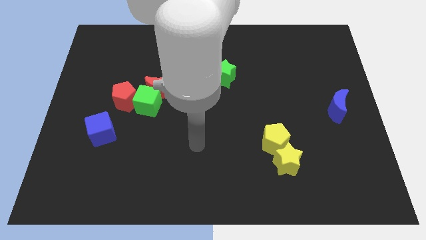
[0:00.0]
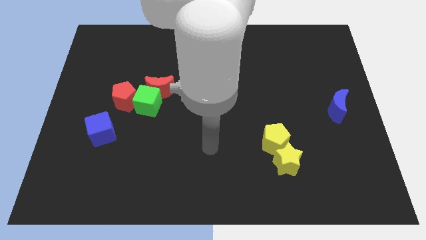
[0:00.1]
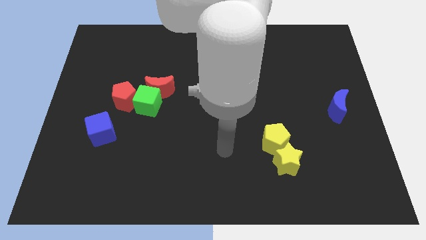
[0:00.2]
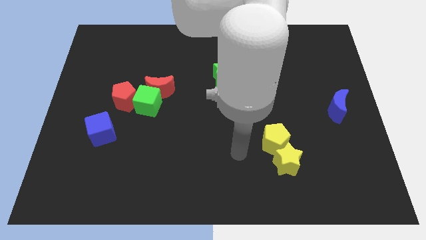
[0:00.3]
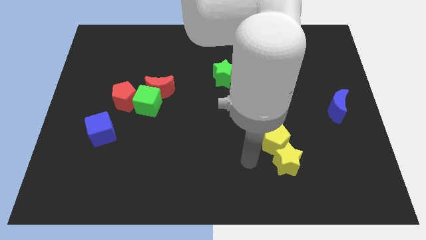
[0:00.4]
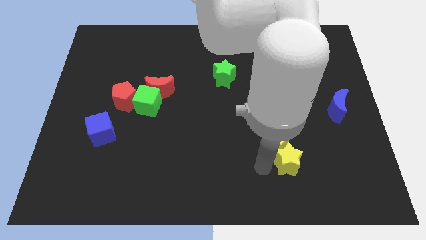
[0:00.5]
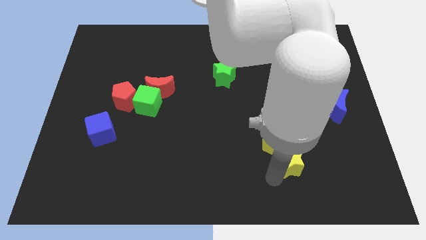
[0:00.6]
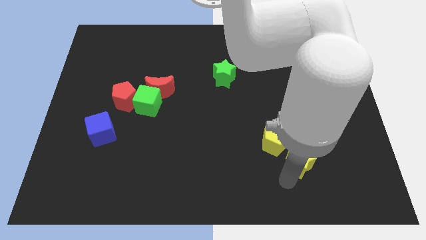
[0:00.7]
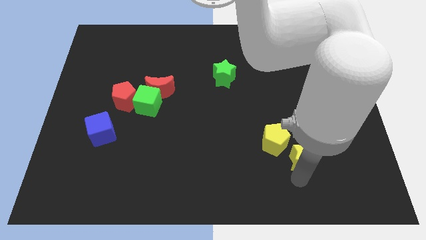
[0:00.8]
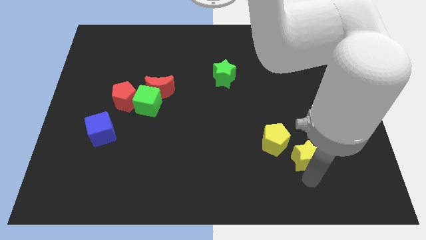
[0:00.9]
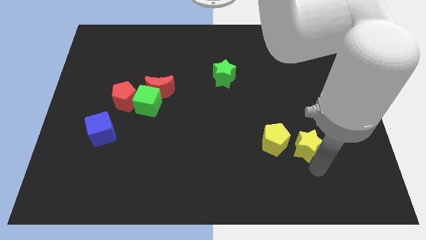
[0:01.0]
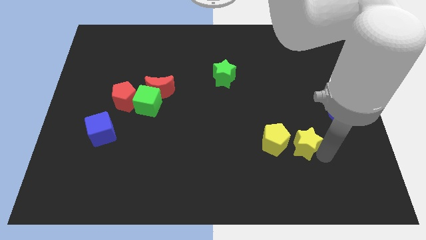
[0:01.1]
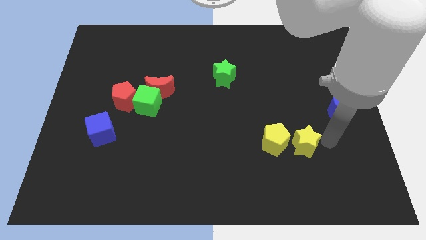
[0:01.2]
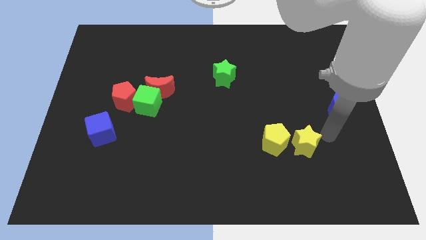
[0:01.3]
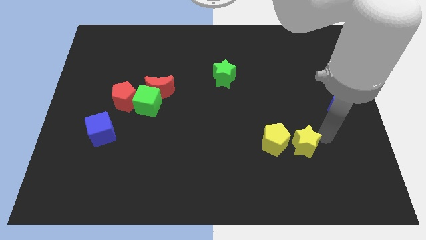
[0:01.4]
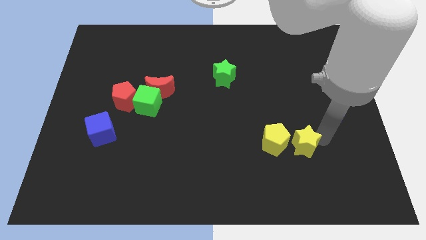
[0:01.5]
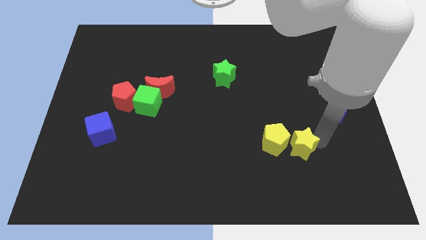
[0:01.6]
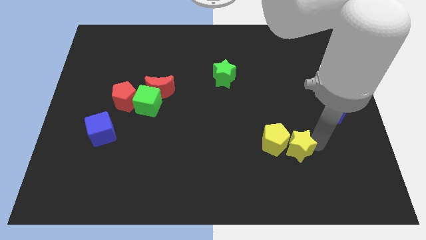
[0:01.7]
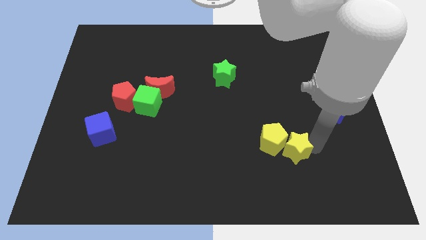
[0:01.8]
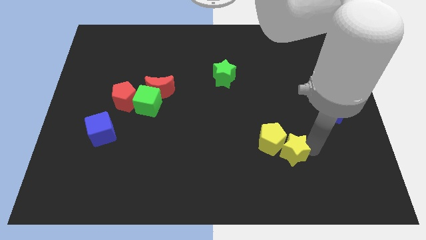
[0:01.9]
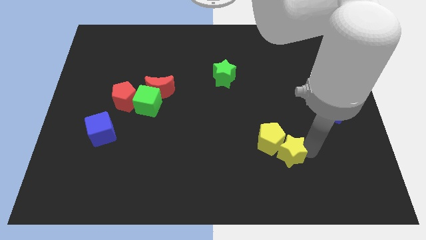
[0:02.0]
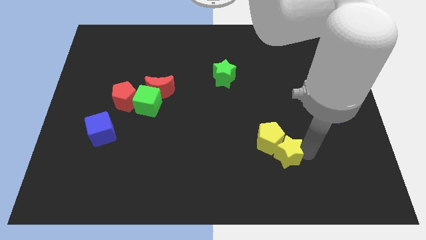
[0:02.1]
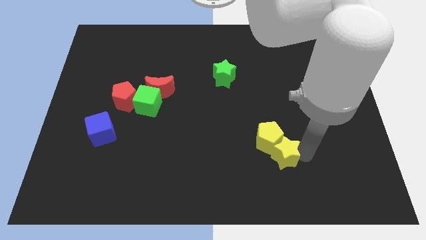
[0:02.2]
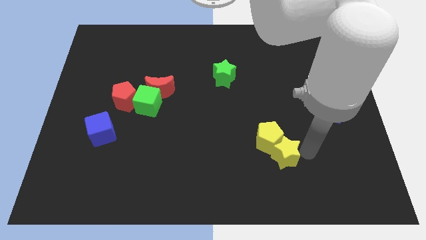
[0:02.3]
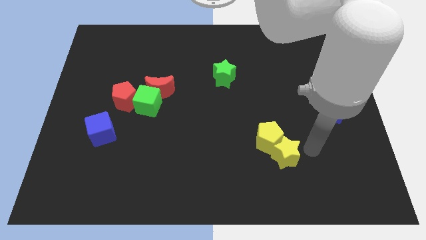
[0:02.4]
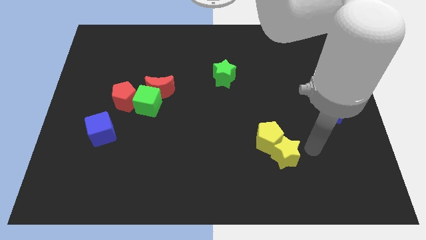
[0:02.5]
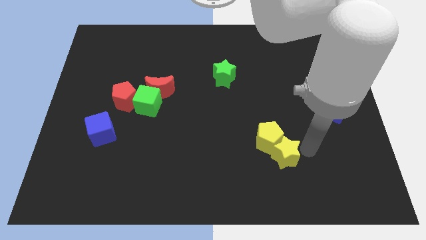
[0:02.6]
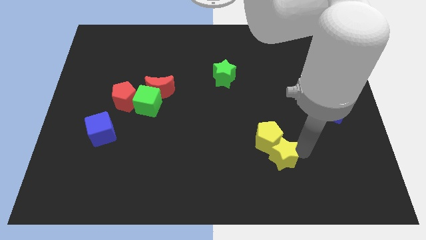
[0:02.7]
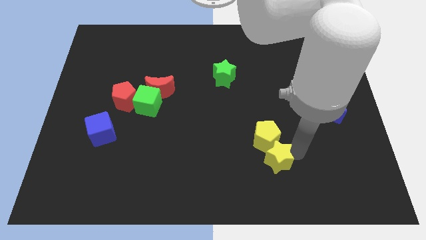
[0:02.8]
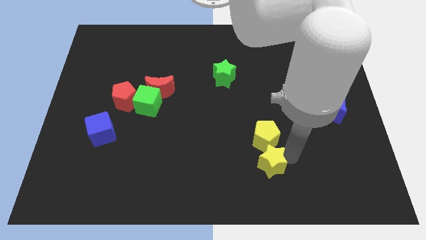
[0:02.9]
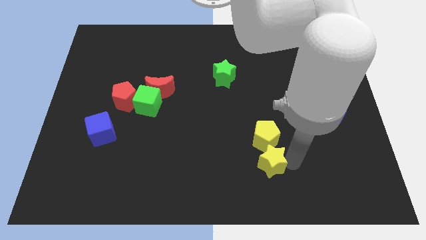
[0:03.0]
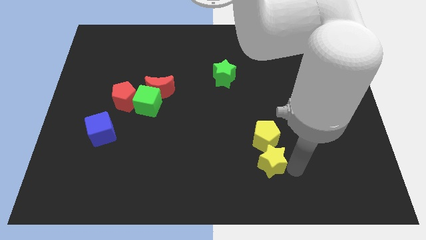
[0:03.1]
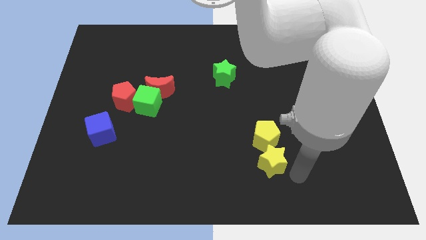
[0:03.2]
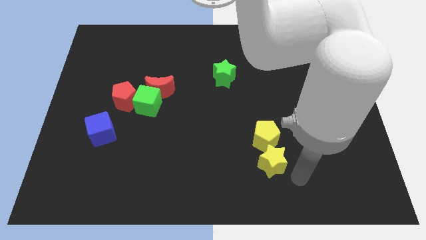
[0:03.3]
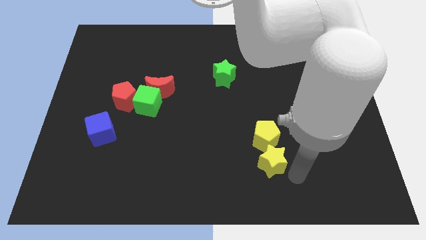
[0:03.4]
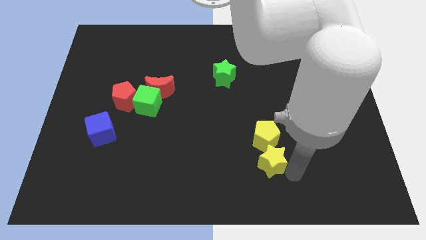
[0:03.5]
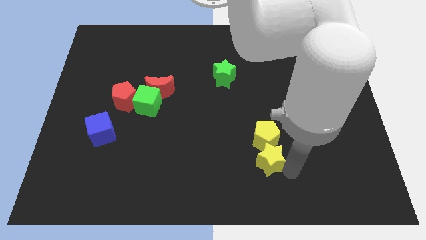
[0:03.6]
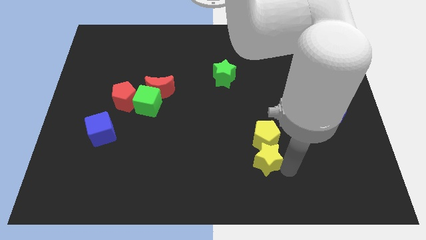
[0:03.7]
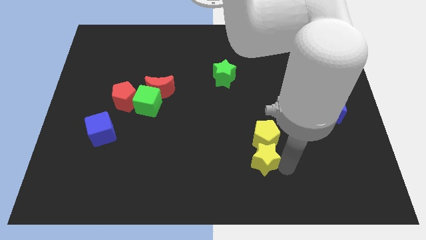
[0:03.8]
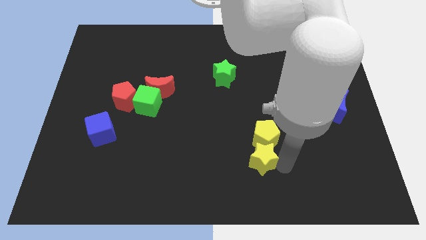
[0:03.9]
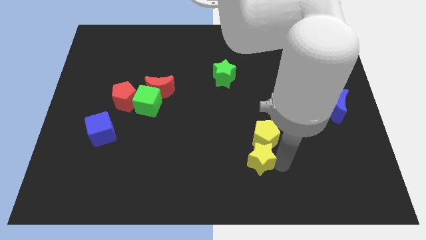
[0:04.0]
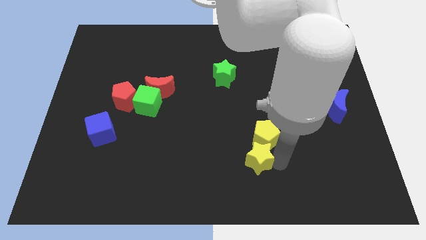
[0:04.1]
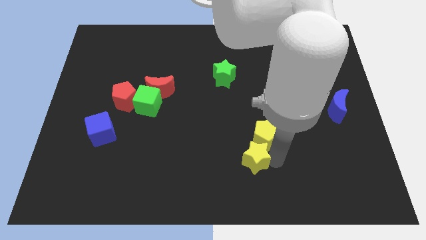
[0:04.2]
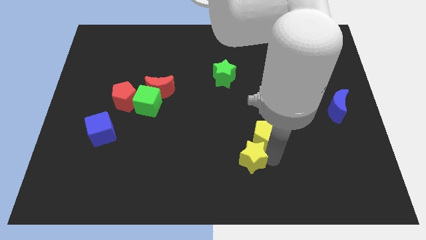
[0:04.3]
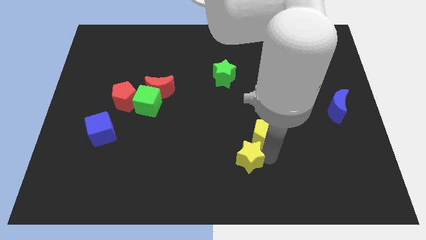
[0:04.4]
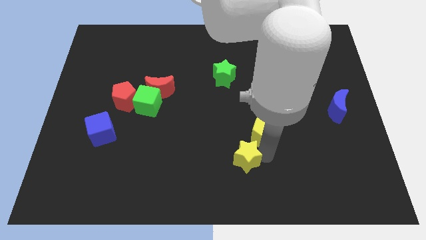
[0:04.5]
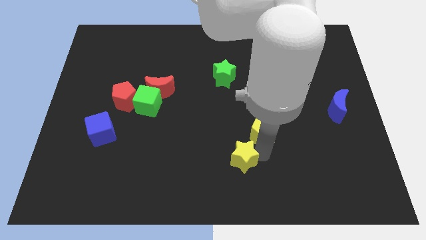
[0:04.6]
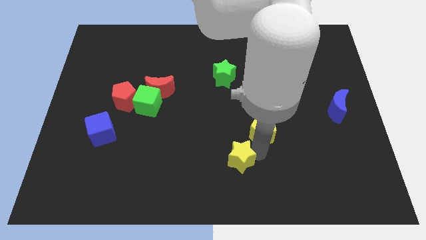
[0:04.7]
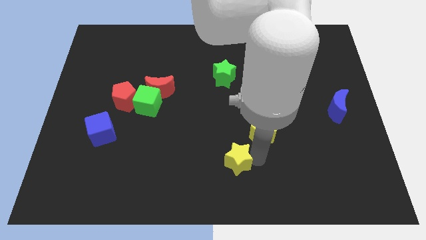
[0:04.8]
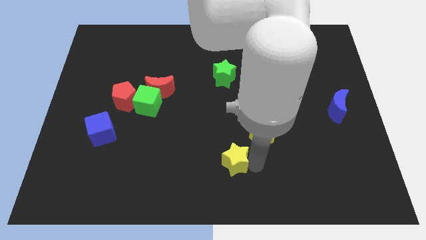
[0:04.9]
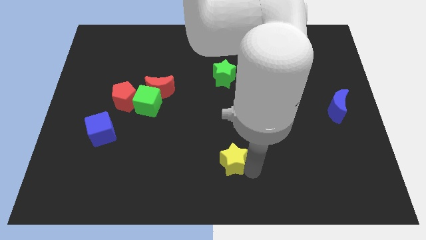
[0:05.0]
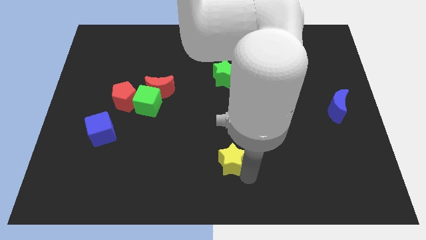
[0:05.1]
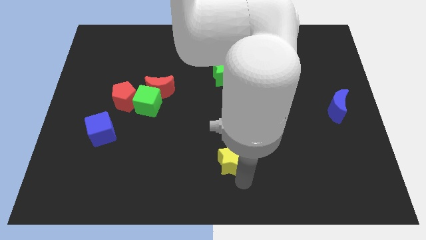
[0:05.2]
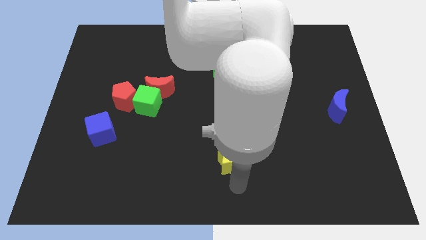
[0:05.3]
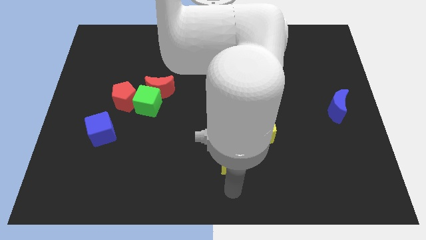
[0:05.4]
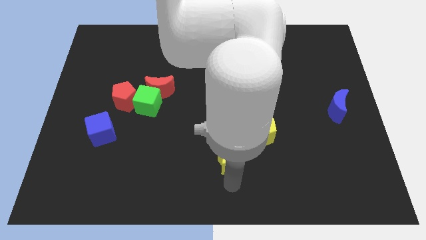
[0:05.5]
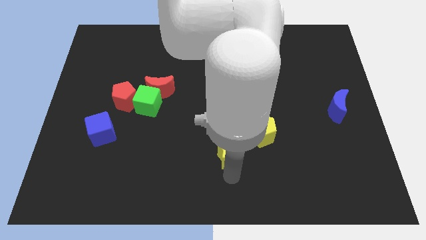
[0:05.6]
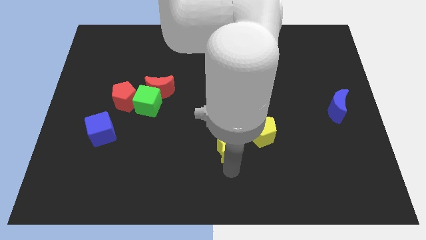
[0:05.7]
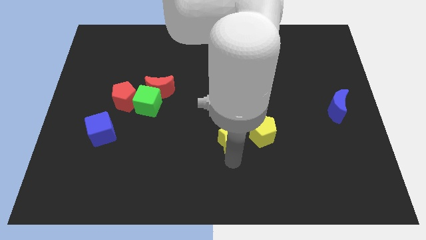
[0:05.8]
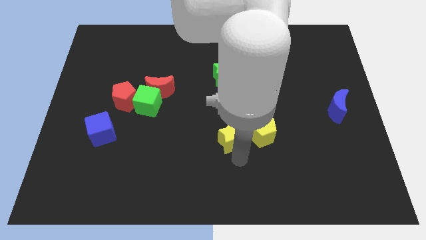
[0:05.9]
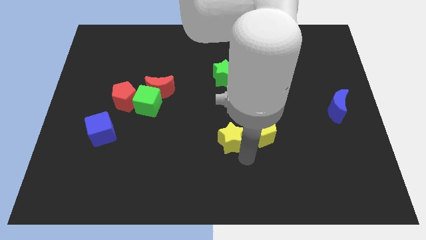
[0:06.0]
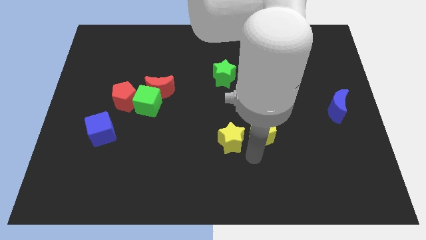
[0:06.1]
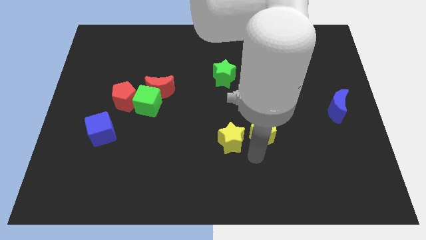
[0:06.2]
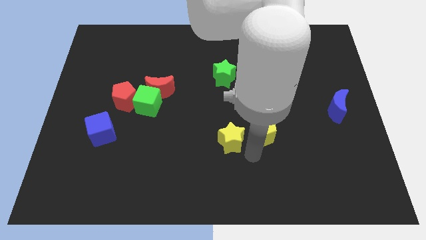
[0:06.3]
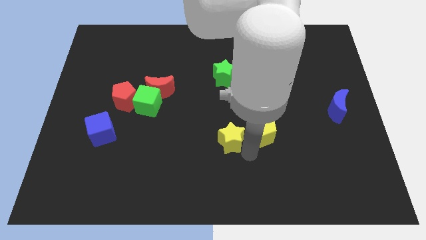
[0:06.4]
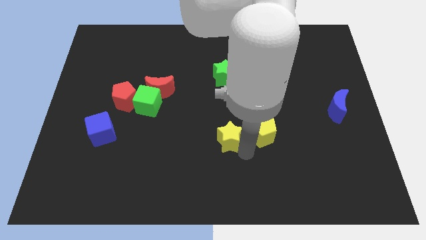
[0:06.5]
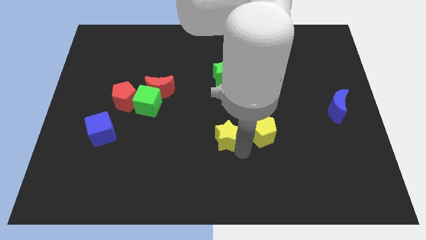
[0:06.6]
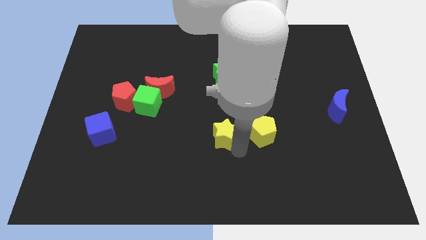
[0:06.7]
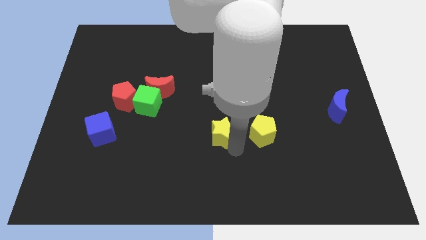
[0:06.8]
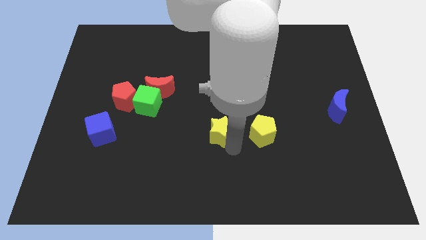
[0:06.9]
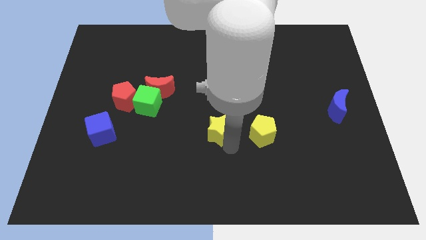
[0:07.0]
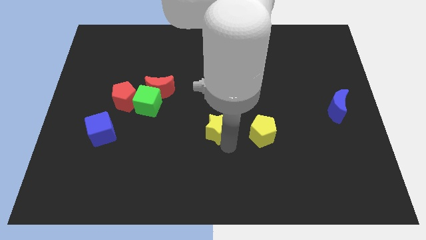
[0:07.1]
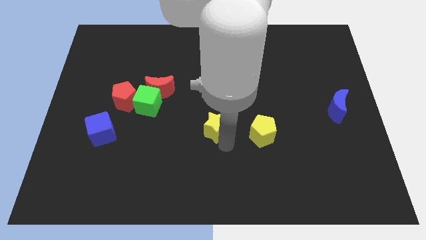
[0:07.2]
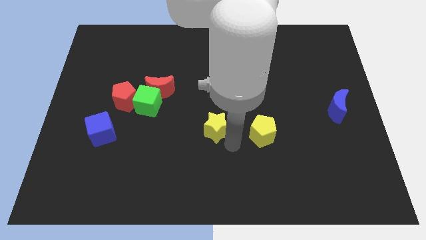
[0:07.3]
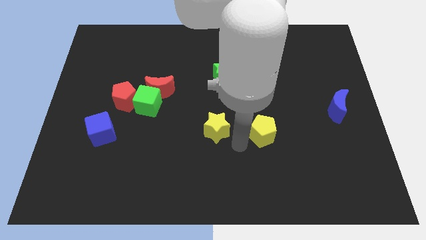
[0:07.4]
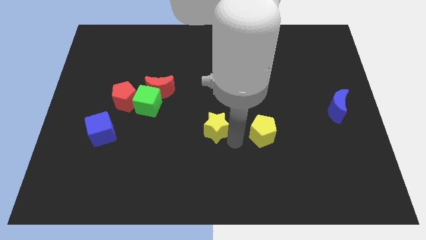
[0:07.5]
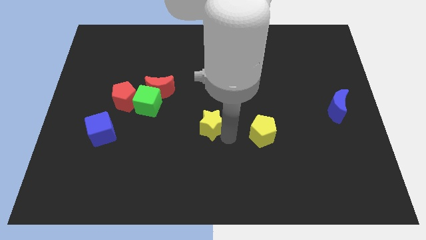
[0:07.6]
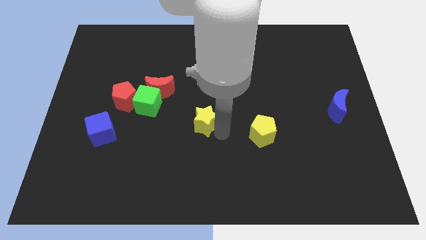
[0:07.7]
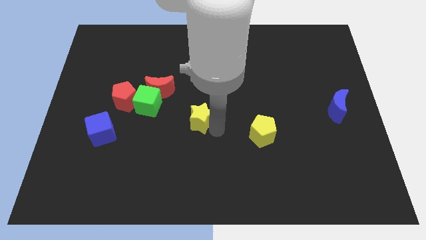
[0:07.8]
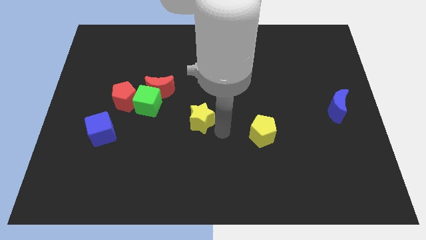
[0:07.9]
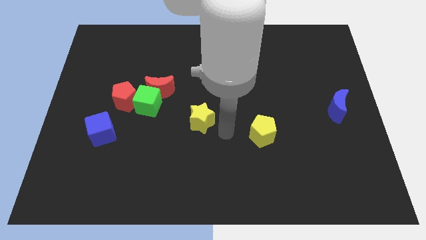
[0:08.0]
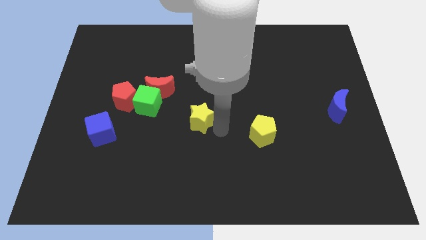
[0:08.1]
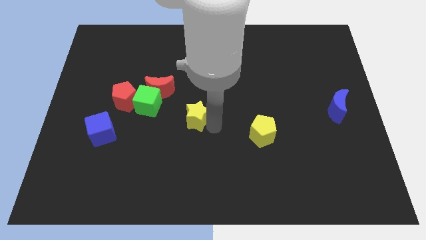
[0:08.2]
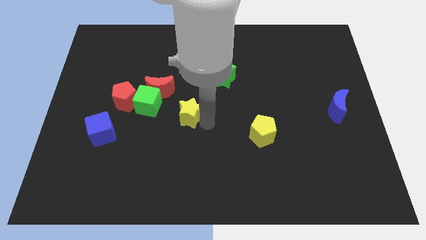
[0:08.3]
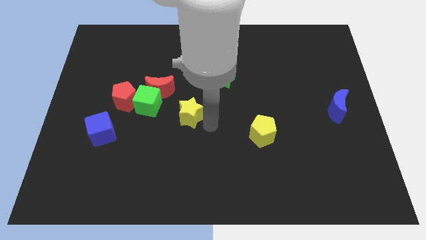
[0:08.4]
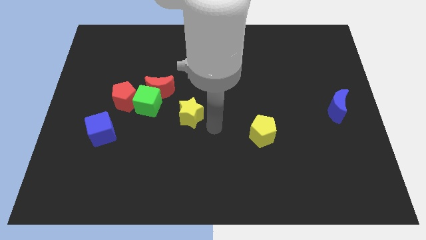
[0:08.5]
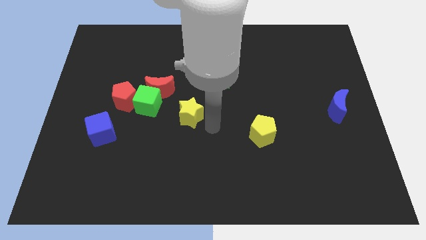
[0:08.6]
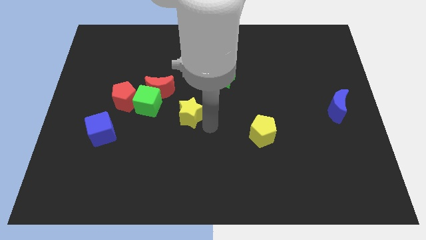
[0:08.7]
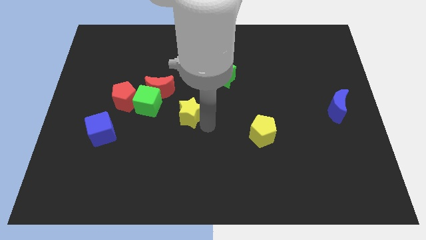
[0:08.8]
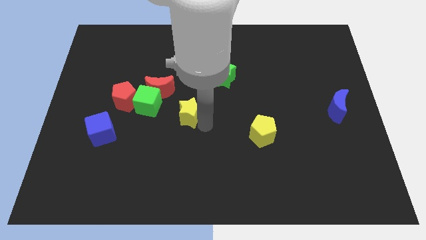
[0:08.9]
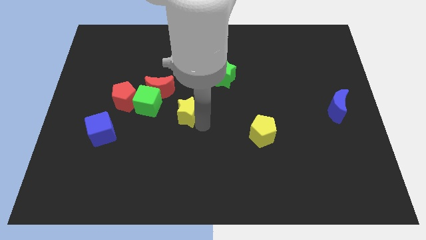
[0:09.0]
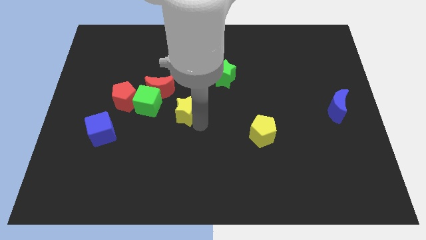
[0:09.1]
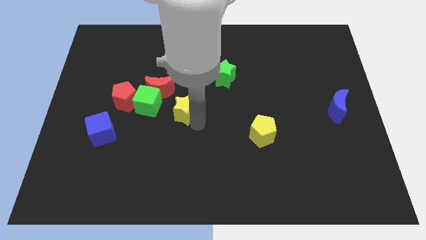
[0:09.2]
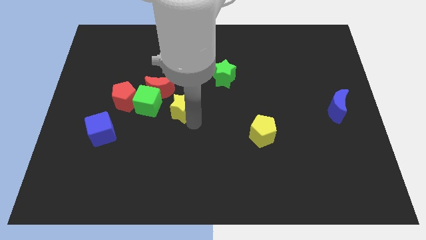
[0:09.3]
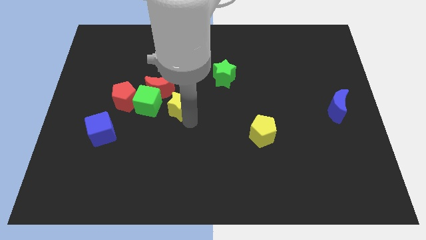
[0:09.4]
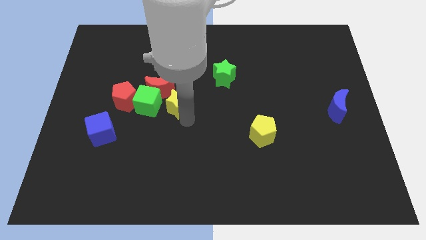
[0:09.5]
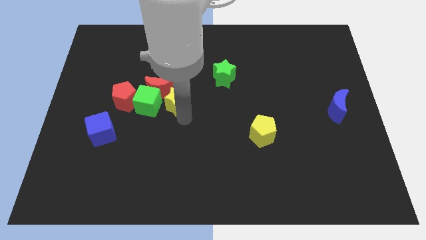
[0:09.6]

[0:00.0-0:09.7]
move the yellow star close to the red moon
